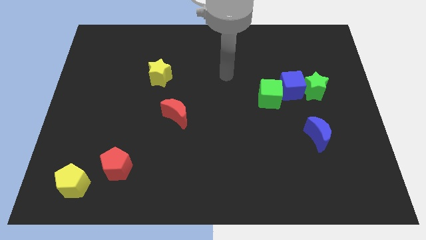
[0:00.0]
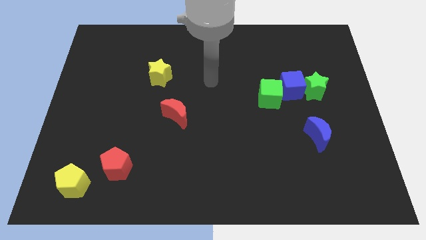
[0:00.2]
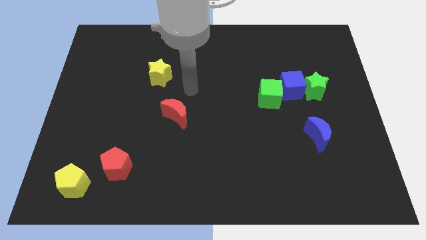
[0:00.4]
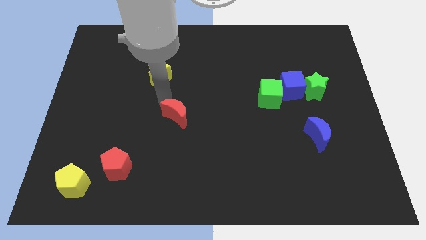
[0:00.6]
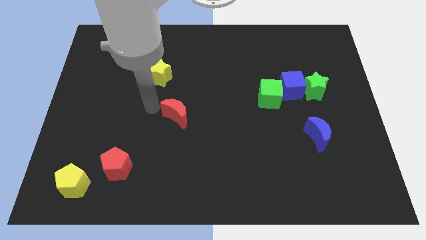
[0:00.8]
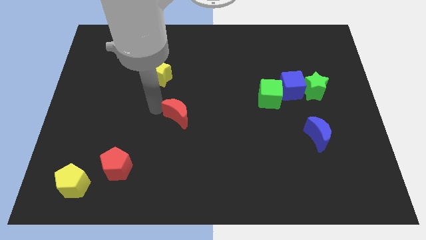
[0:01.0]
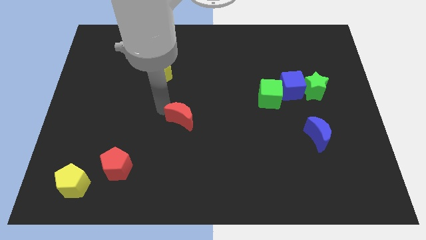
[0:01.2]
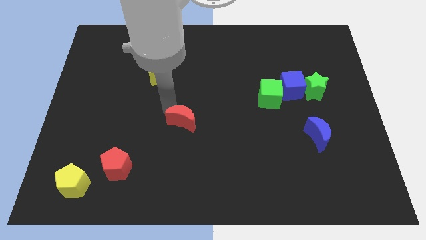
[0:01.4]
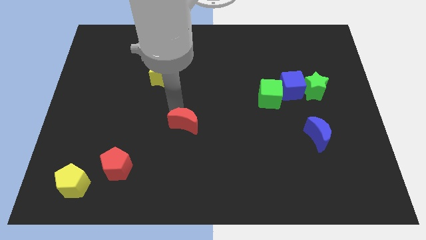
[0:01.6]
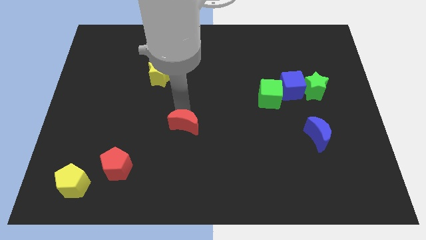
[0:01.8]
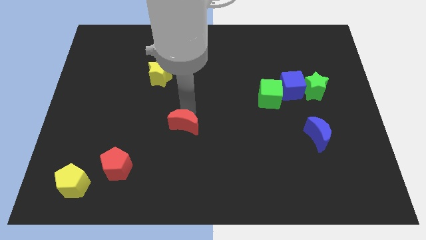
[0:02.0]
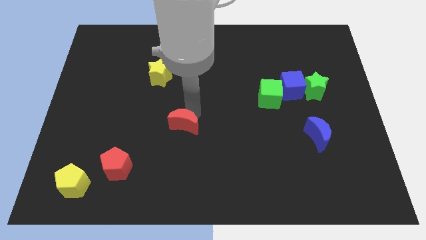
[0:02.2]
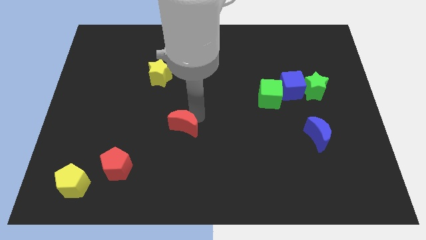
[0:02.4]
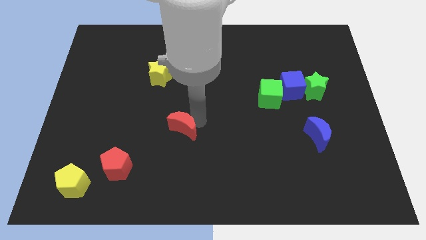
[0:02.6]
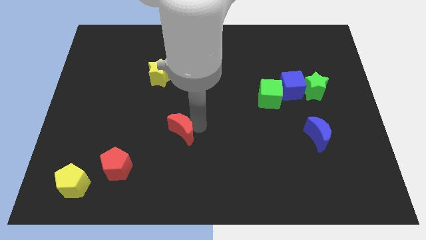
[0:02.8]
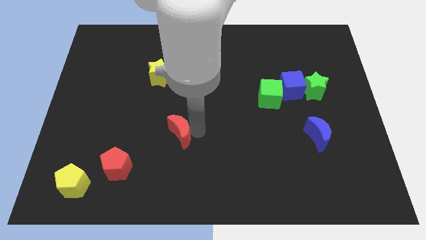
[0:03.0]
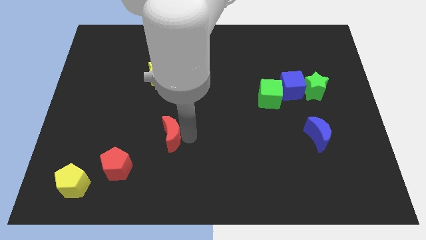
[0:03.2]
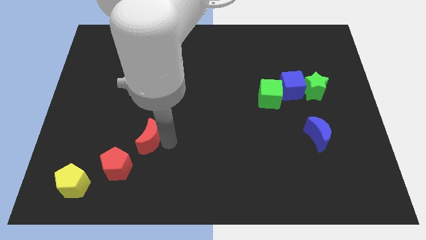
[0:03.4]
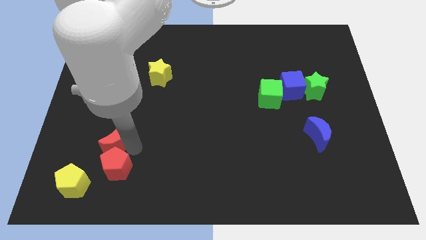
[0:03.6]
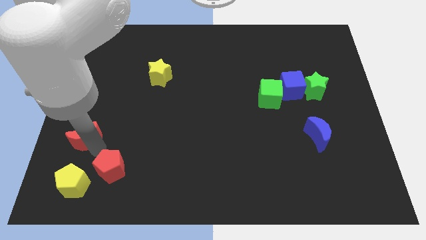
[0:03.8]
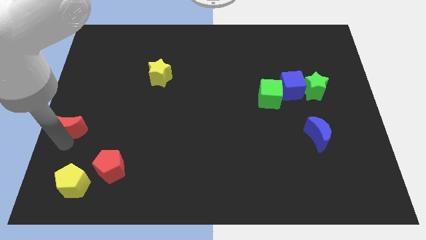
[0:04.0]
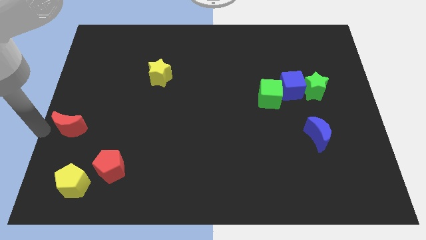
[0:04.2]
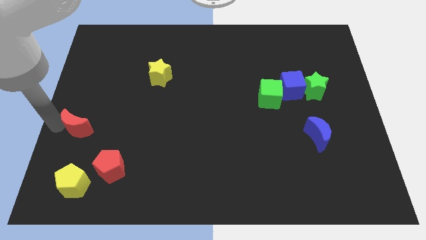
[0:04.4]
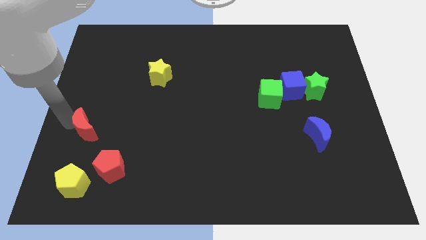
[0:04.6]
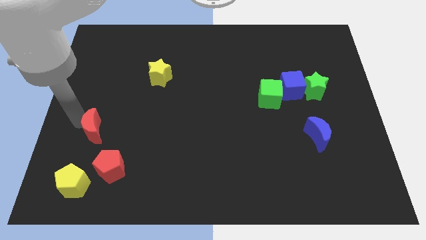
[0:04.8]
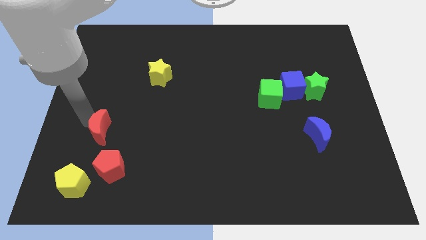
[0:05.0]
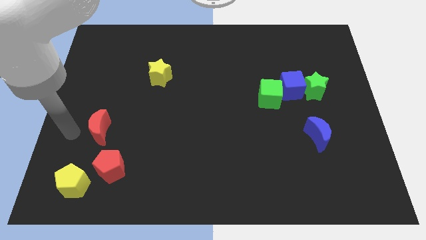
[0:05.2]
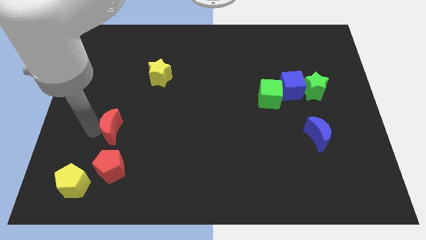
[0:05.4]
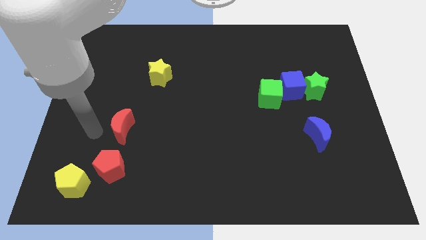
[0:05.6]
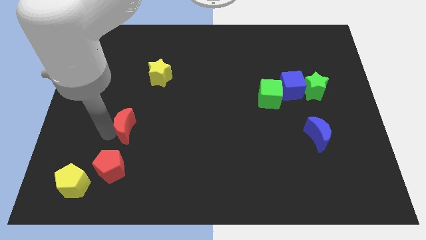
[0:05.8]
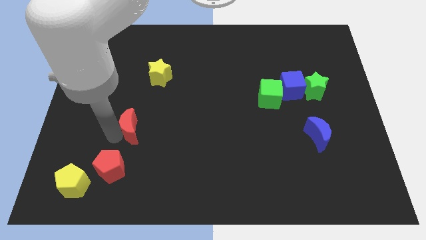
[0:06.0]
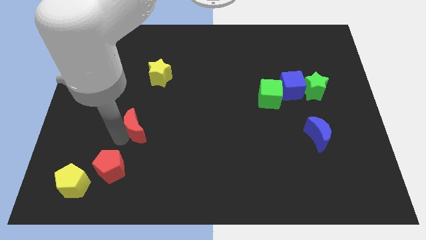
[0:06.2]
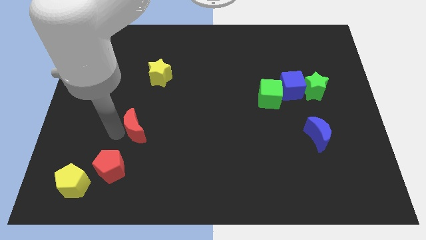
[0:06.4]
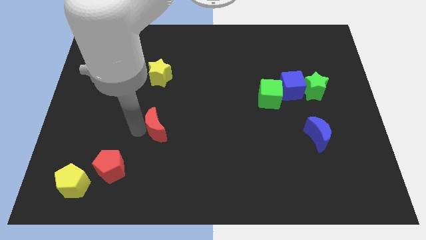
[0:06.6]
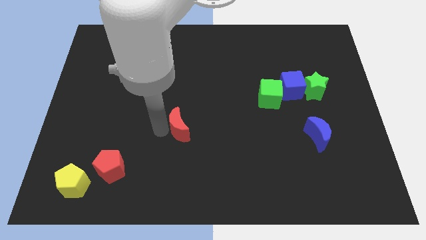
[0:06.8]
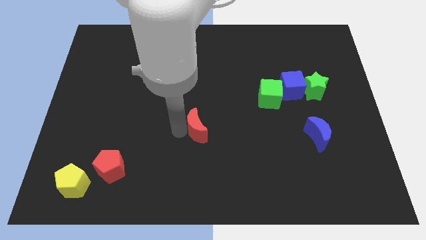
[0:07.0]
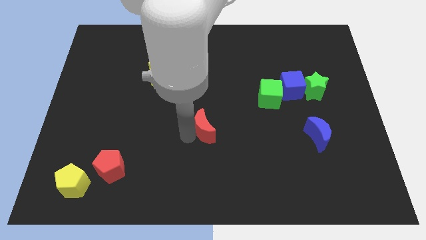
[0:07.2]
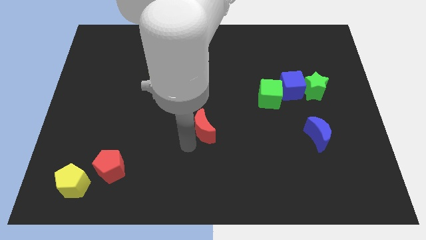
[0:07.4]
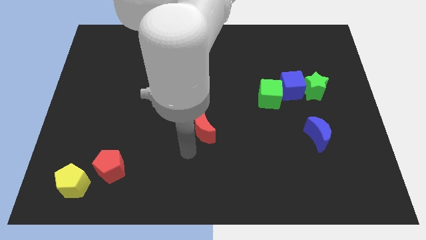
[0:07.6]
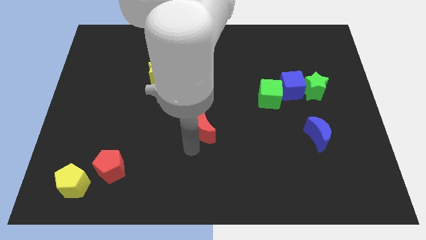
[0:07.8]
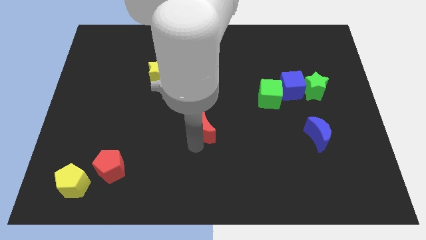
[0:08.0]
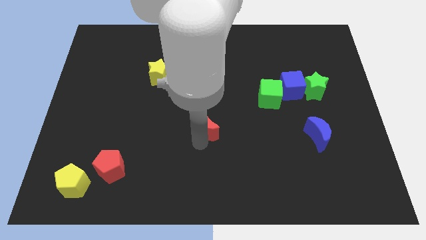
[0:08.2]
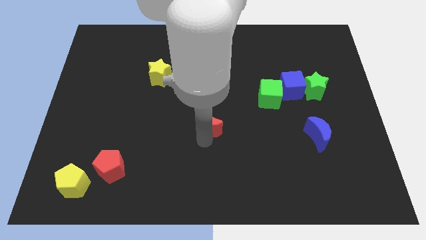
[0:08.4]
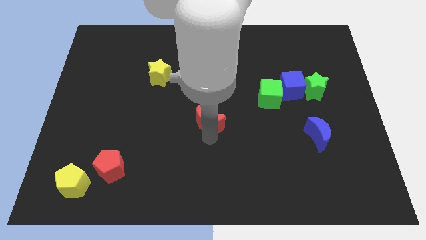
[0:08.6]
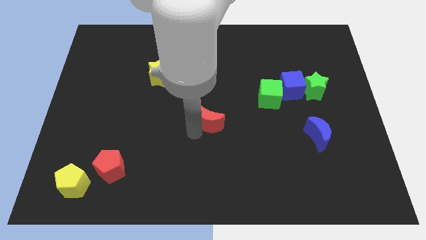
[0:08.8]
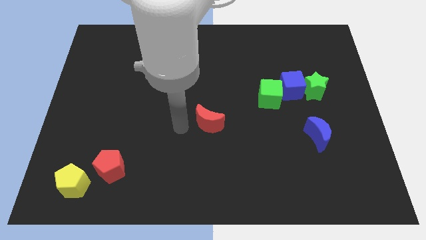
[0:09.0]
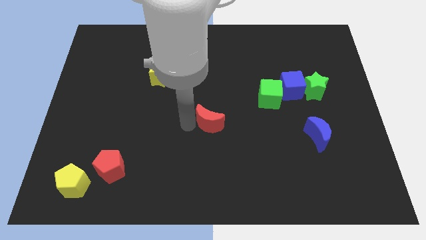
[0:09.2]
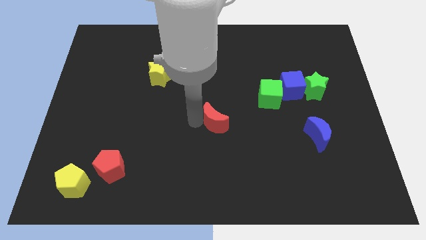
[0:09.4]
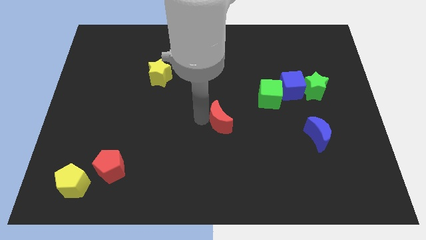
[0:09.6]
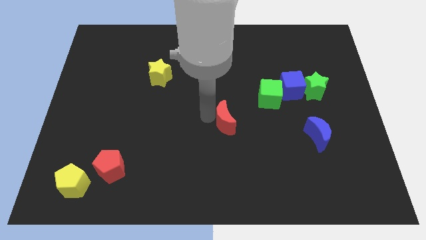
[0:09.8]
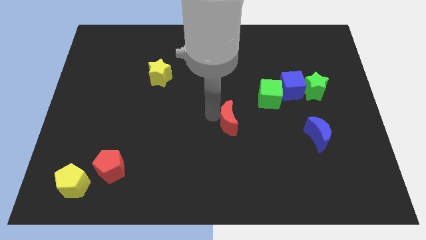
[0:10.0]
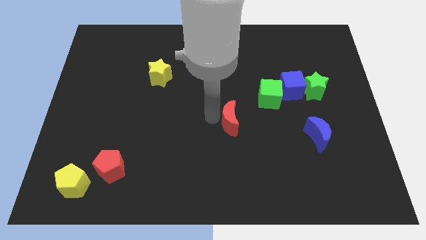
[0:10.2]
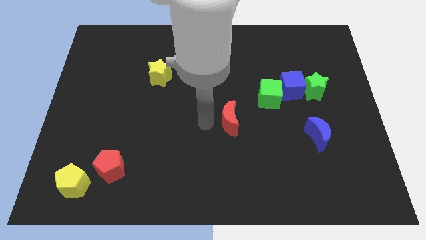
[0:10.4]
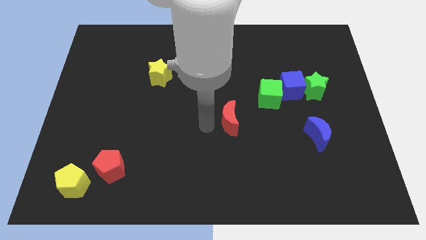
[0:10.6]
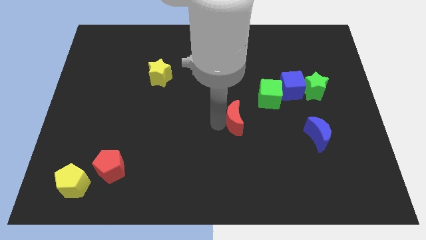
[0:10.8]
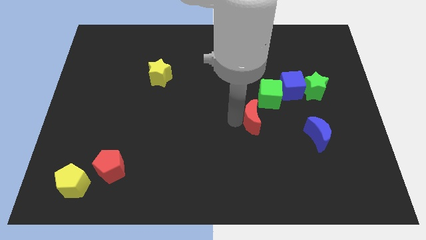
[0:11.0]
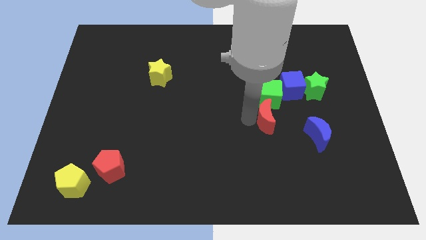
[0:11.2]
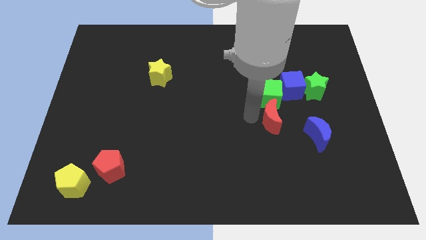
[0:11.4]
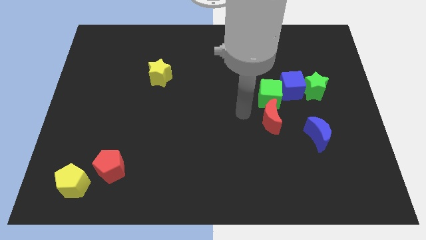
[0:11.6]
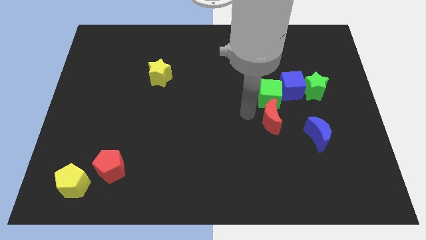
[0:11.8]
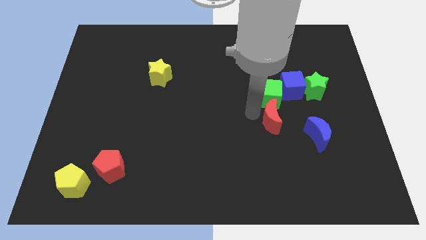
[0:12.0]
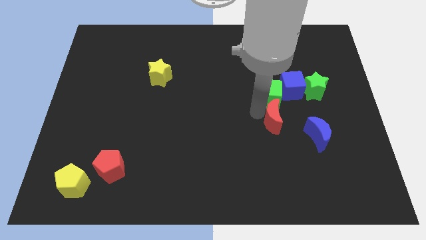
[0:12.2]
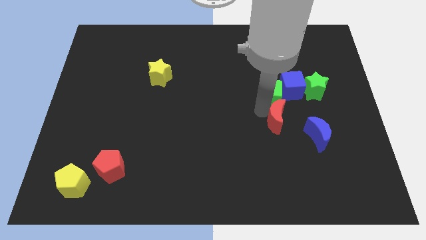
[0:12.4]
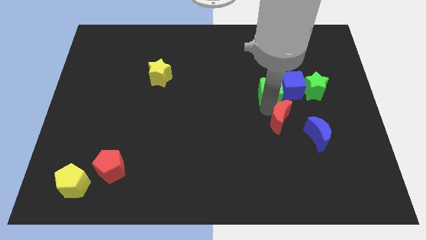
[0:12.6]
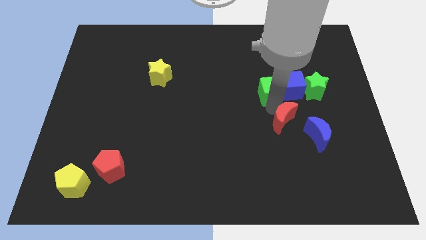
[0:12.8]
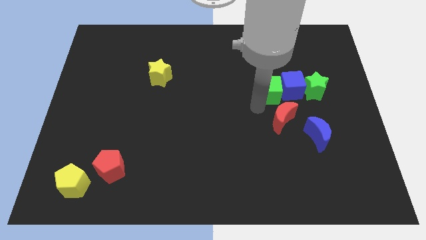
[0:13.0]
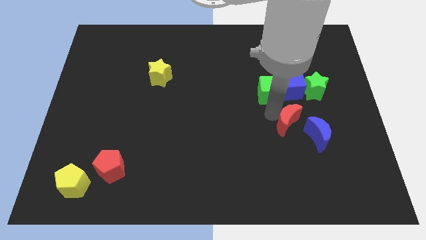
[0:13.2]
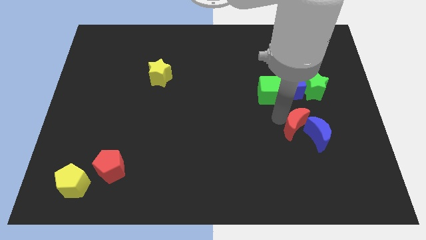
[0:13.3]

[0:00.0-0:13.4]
move the red moon next to the blue moon

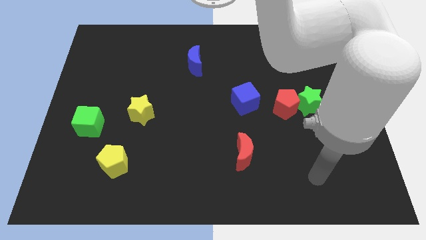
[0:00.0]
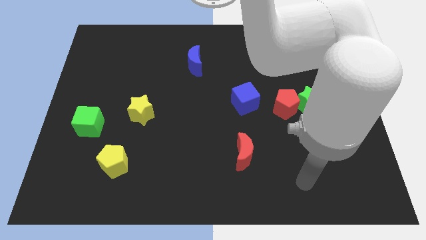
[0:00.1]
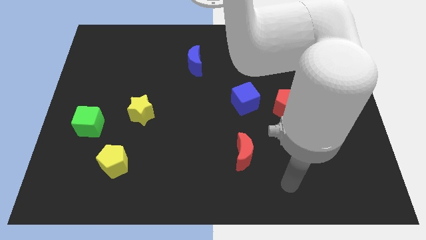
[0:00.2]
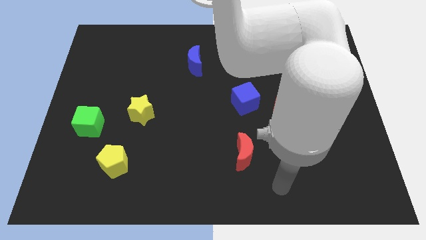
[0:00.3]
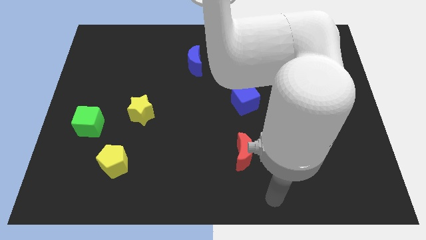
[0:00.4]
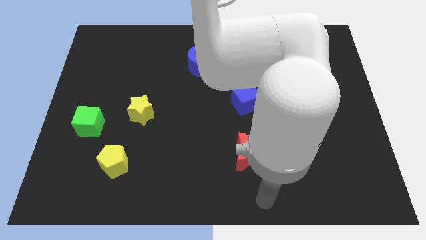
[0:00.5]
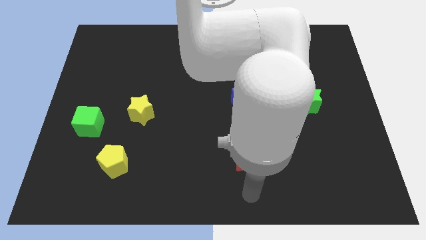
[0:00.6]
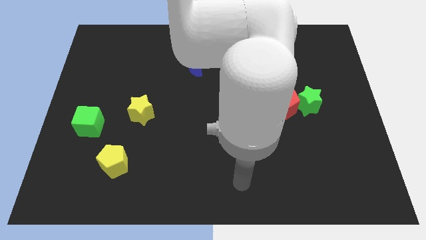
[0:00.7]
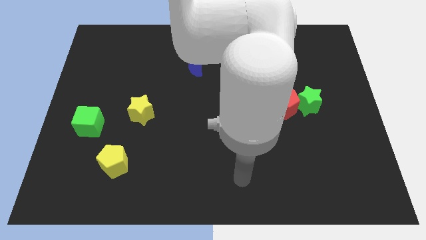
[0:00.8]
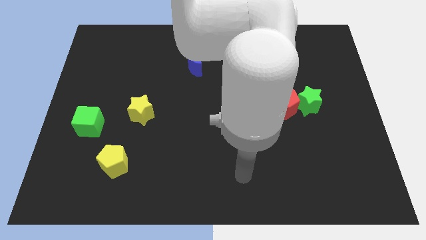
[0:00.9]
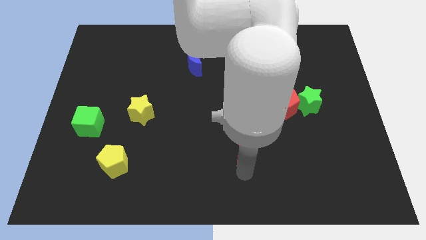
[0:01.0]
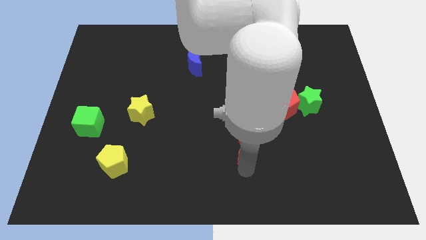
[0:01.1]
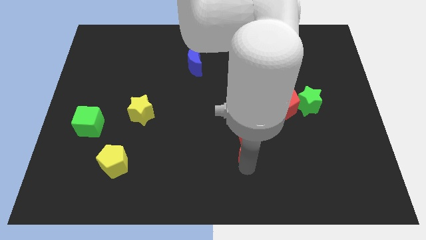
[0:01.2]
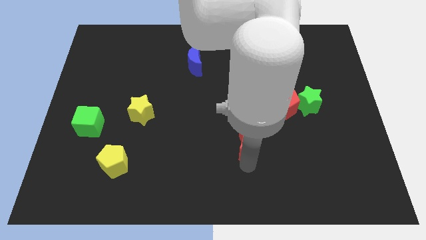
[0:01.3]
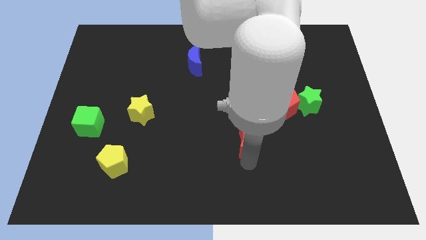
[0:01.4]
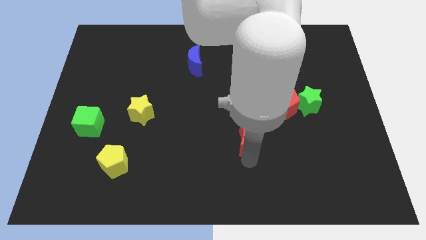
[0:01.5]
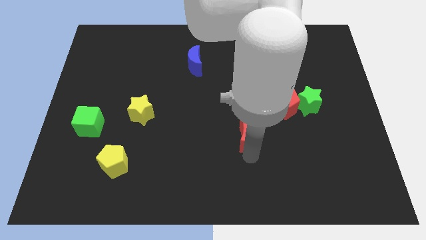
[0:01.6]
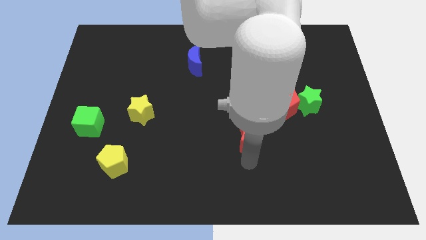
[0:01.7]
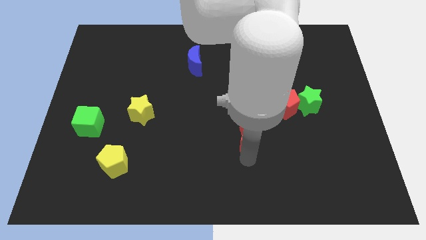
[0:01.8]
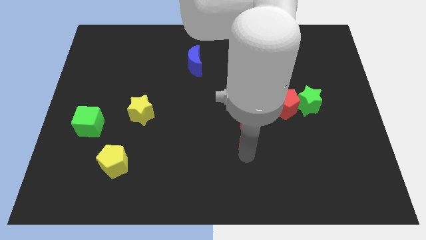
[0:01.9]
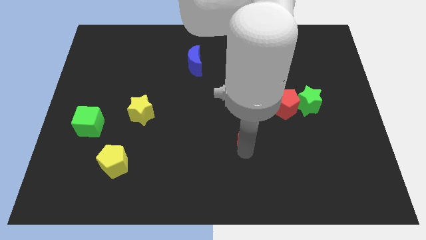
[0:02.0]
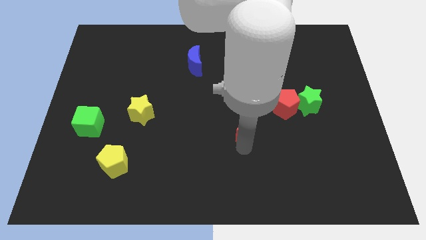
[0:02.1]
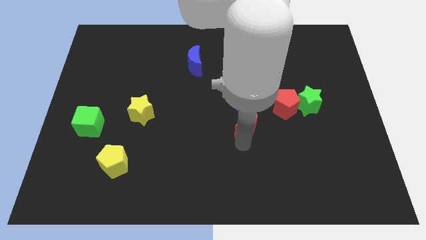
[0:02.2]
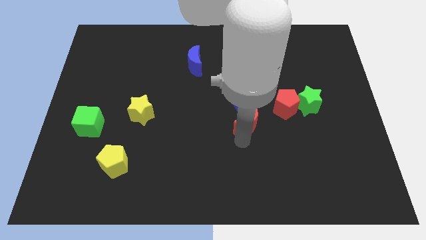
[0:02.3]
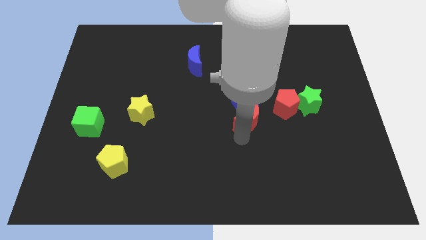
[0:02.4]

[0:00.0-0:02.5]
move the red moon close to the blue cube
